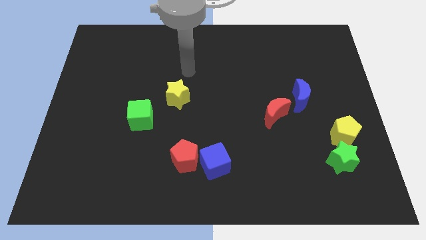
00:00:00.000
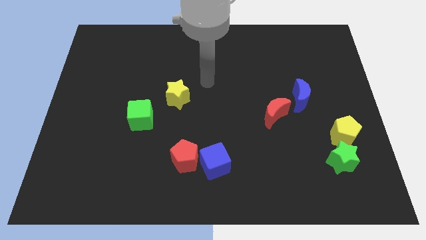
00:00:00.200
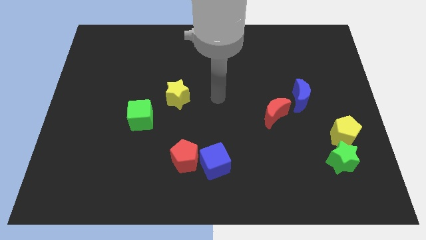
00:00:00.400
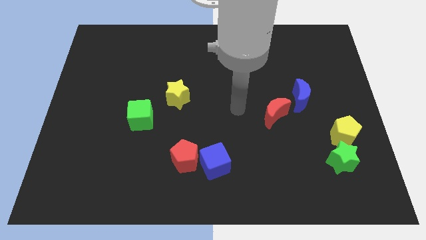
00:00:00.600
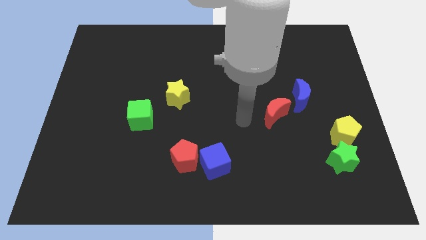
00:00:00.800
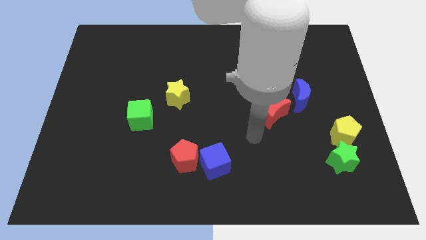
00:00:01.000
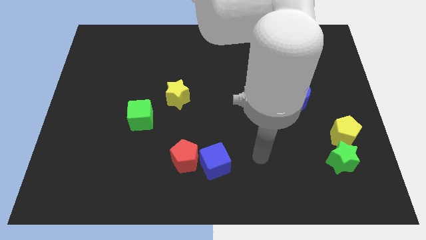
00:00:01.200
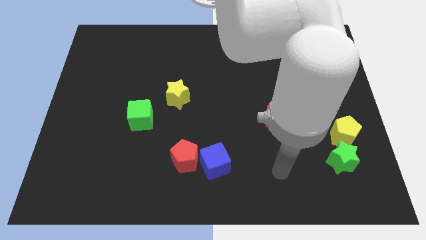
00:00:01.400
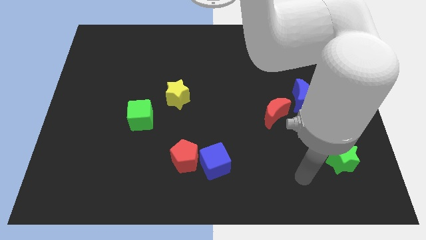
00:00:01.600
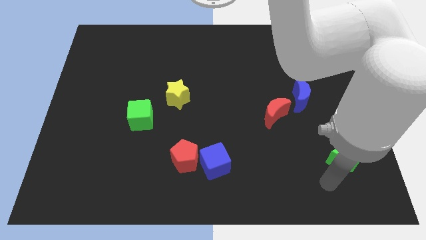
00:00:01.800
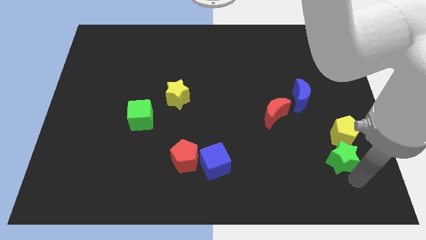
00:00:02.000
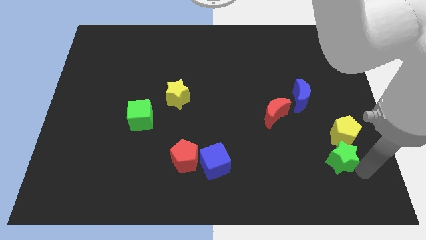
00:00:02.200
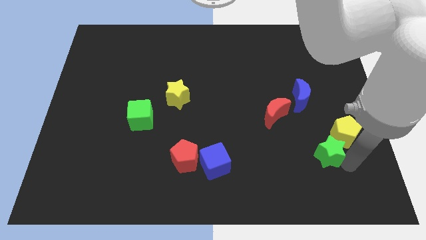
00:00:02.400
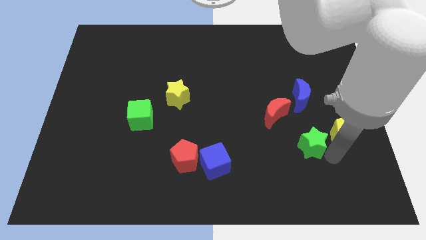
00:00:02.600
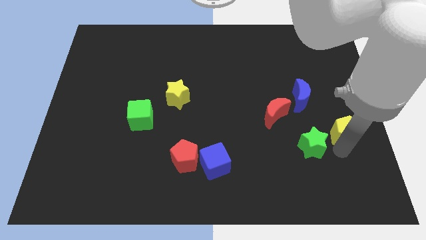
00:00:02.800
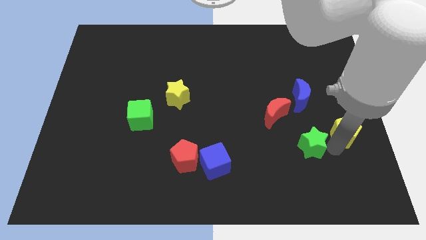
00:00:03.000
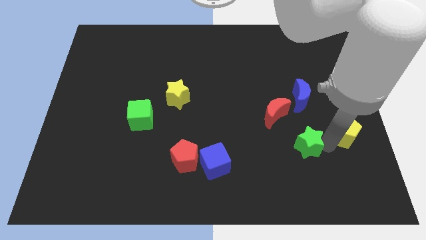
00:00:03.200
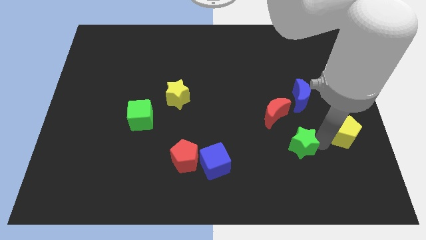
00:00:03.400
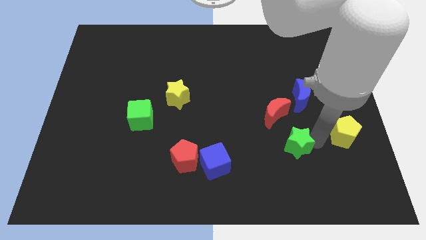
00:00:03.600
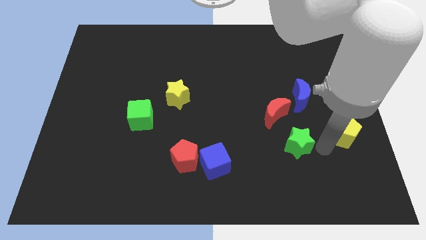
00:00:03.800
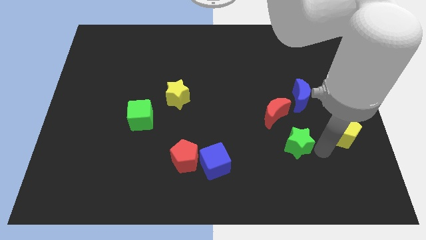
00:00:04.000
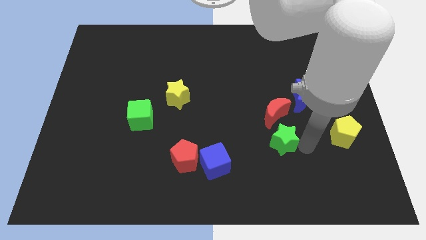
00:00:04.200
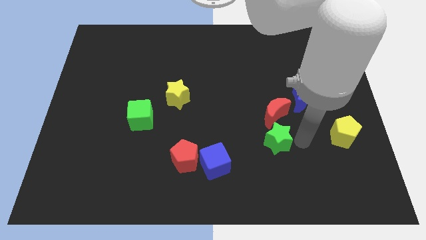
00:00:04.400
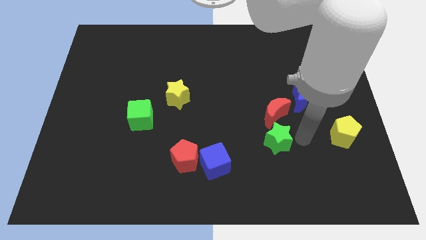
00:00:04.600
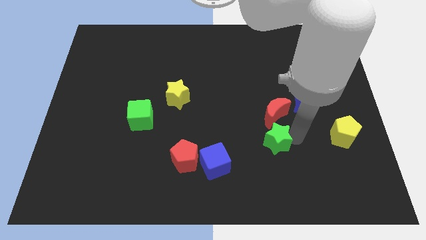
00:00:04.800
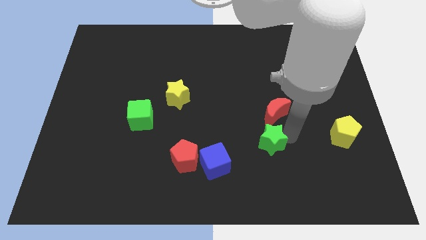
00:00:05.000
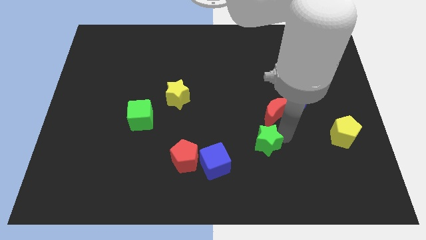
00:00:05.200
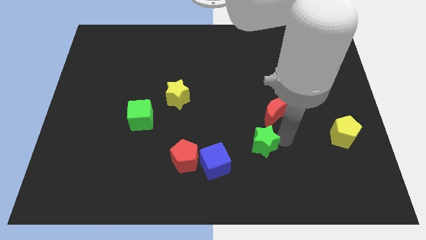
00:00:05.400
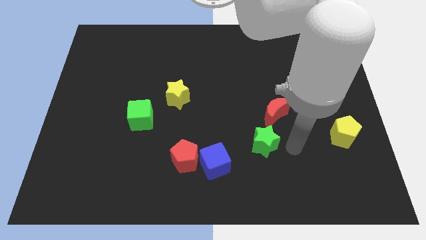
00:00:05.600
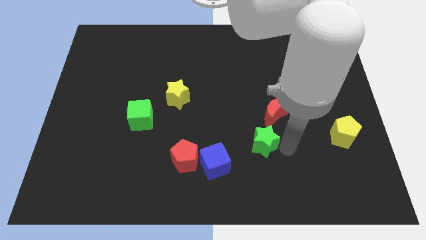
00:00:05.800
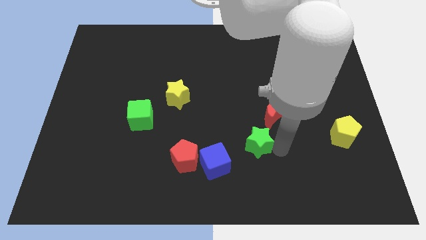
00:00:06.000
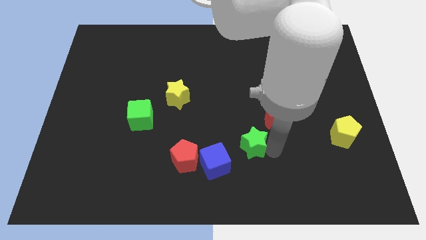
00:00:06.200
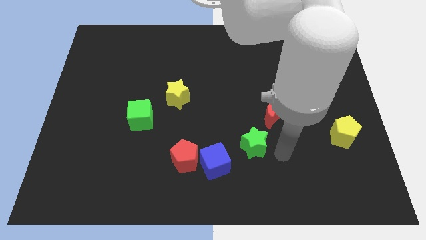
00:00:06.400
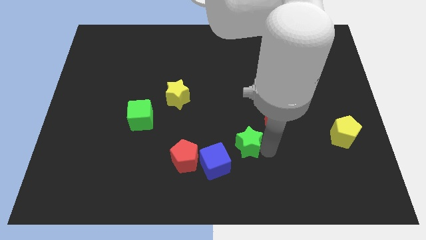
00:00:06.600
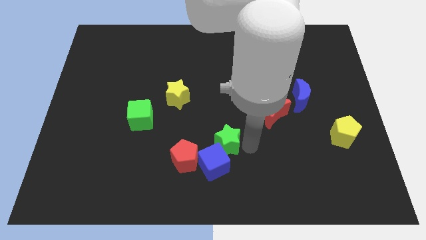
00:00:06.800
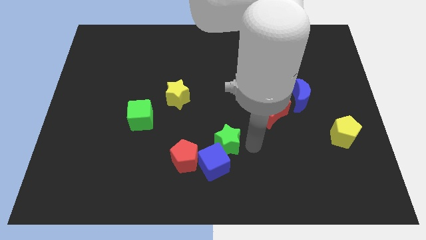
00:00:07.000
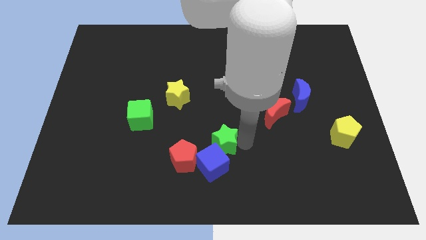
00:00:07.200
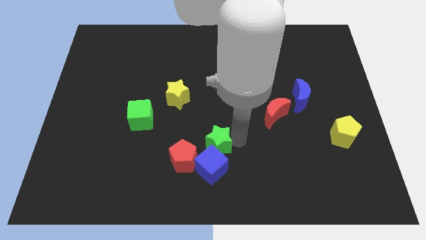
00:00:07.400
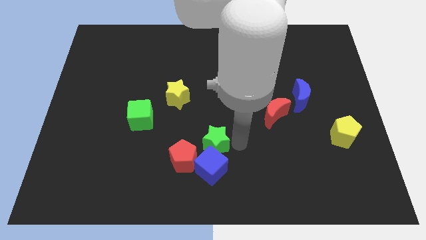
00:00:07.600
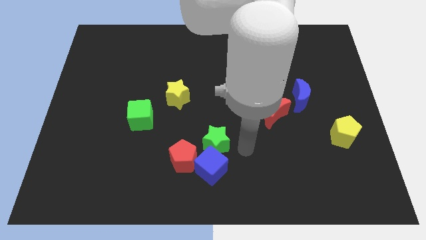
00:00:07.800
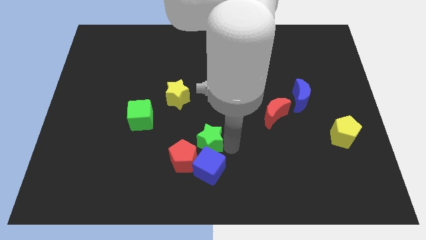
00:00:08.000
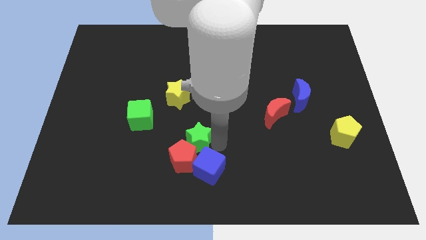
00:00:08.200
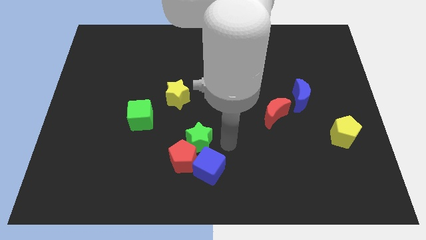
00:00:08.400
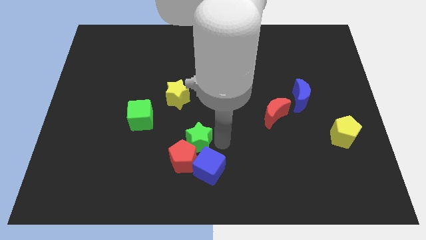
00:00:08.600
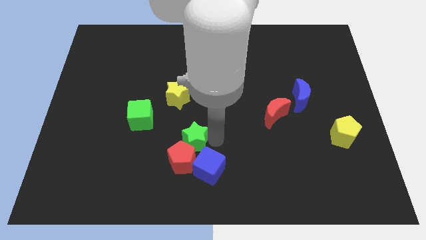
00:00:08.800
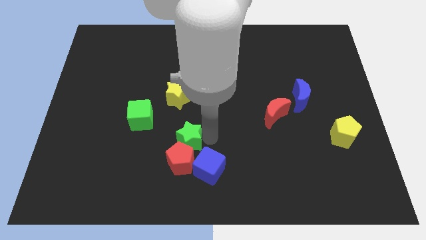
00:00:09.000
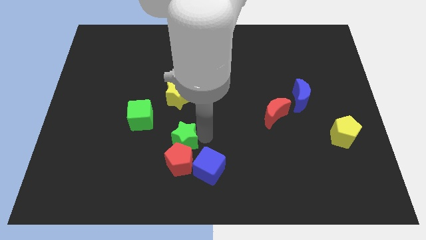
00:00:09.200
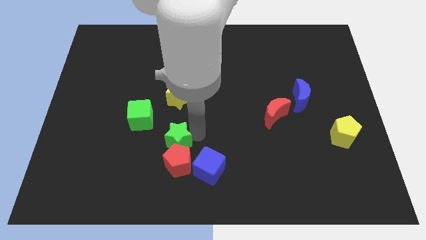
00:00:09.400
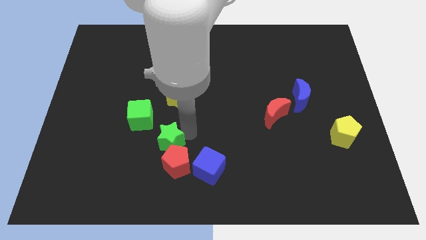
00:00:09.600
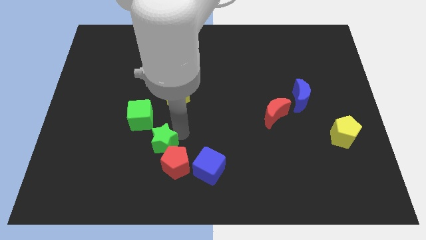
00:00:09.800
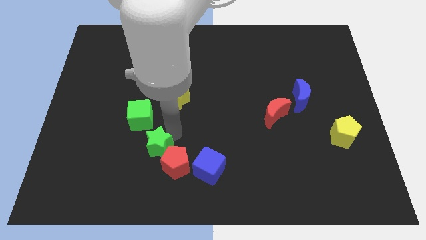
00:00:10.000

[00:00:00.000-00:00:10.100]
slide the green star below the green cube

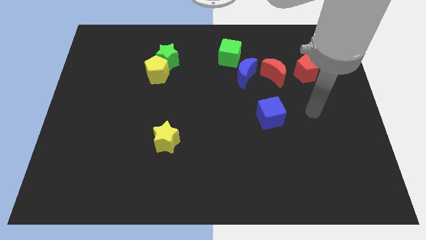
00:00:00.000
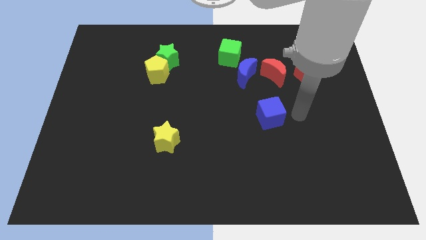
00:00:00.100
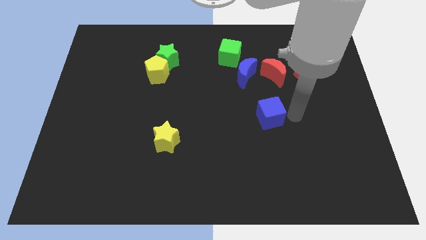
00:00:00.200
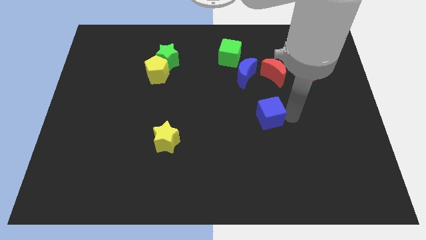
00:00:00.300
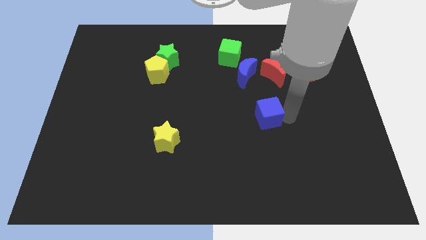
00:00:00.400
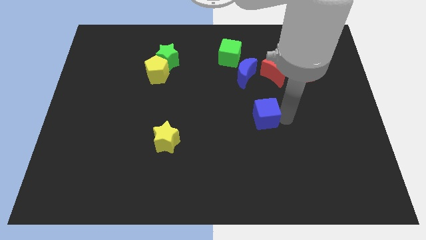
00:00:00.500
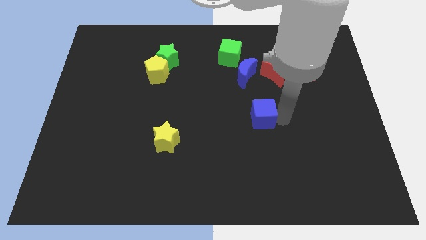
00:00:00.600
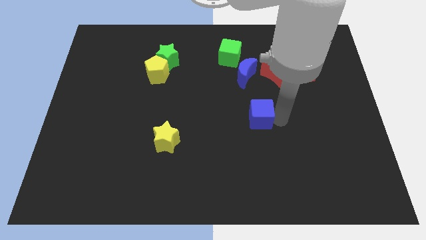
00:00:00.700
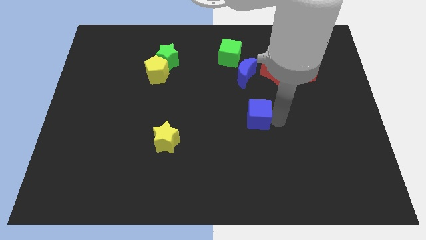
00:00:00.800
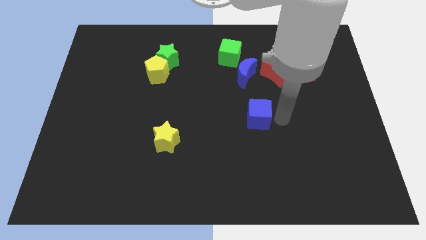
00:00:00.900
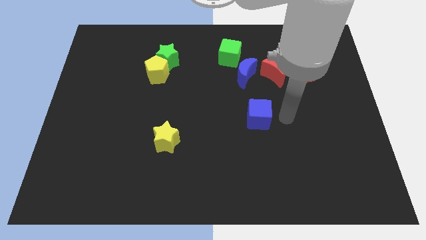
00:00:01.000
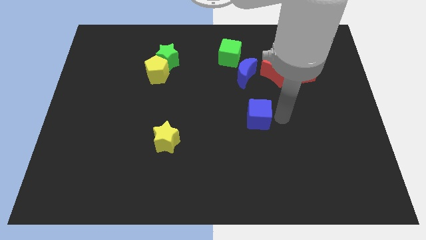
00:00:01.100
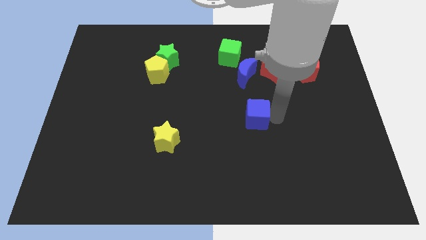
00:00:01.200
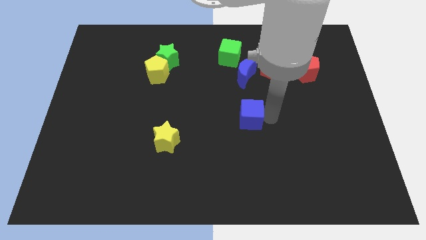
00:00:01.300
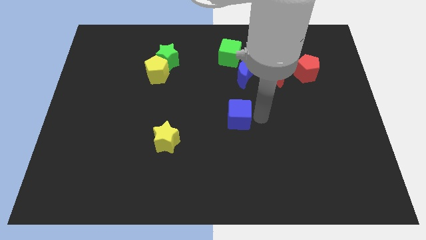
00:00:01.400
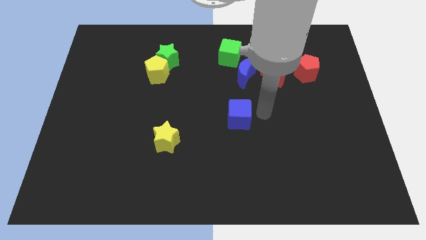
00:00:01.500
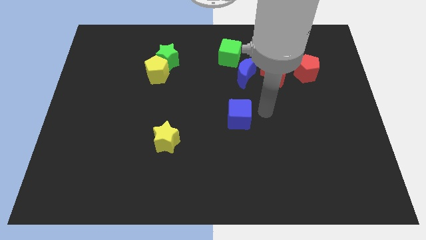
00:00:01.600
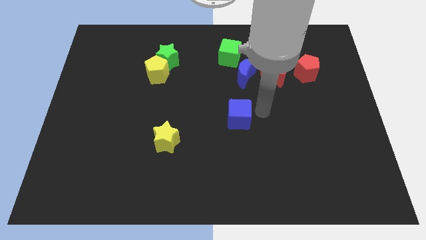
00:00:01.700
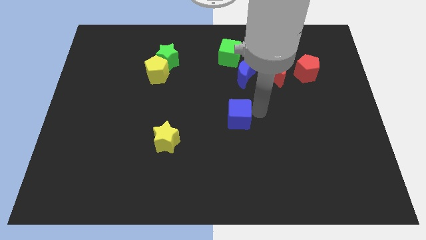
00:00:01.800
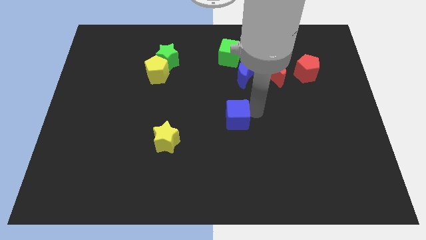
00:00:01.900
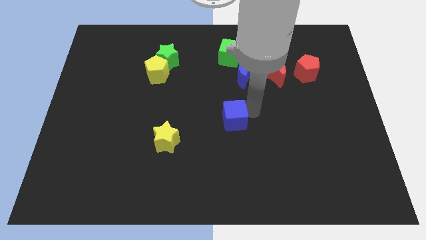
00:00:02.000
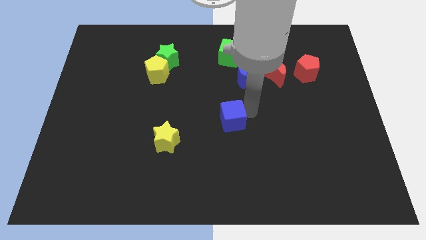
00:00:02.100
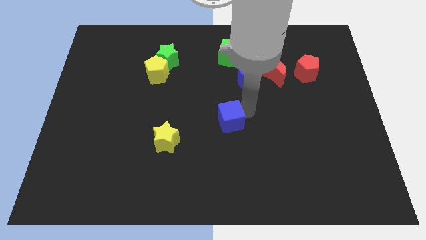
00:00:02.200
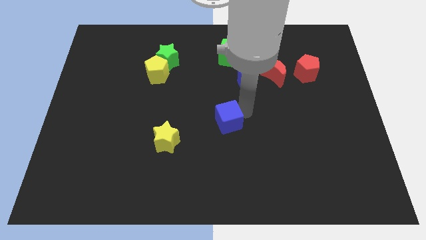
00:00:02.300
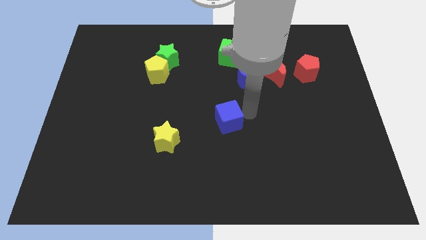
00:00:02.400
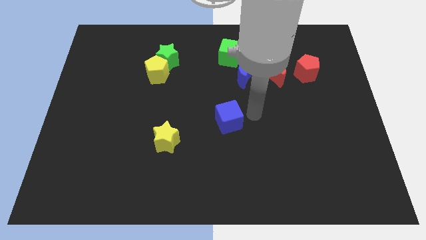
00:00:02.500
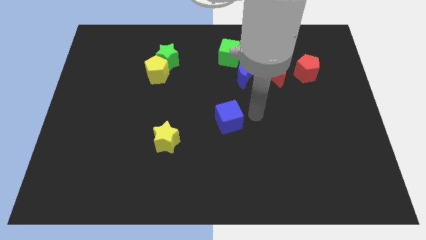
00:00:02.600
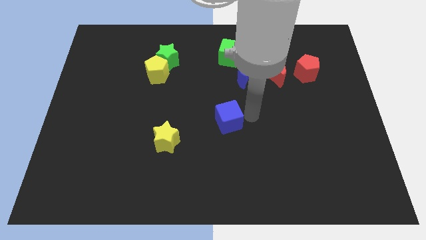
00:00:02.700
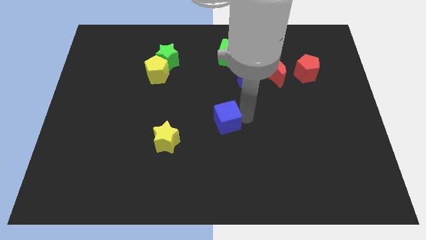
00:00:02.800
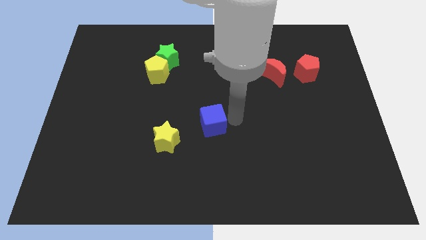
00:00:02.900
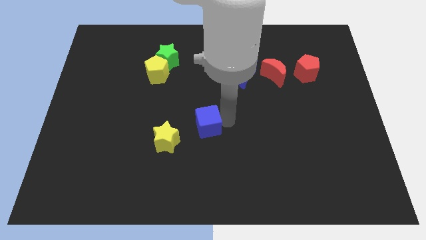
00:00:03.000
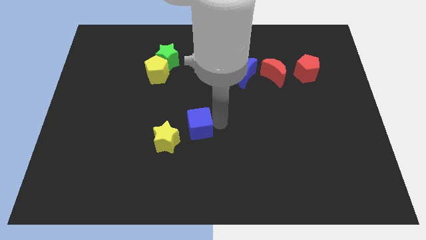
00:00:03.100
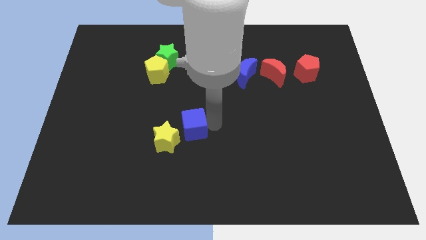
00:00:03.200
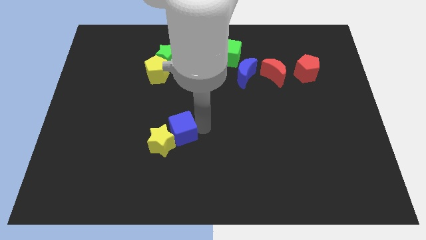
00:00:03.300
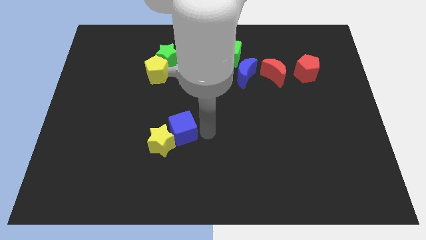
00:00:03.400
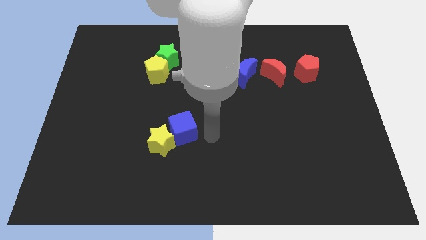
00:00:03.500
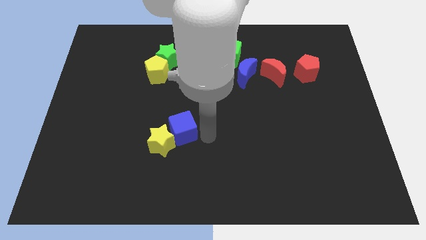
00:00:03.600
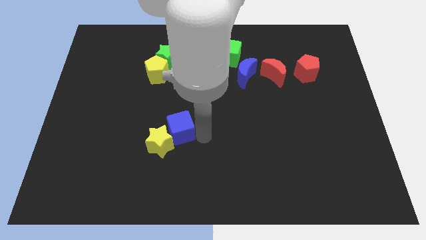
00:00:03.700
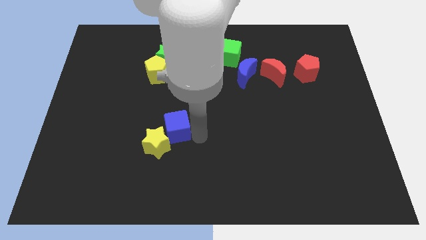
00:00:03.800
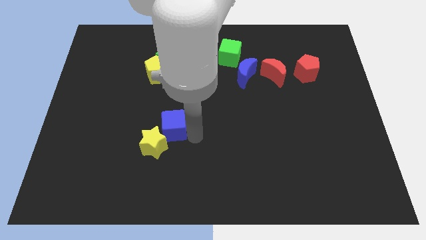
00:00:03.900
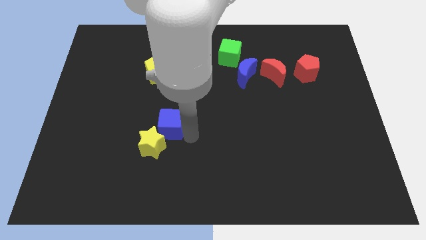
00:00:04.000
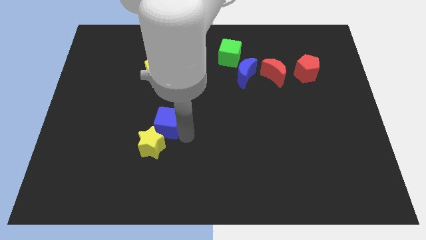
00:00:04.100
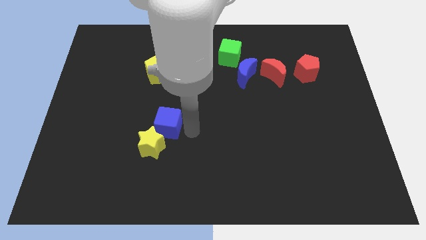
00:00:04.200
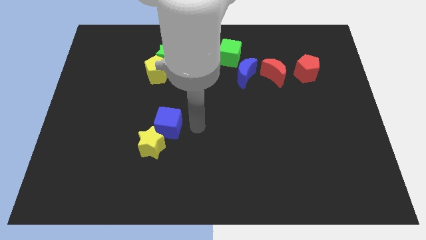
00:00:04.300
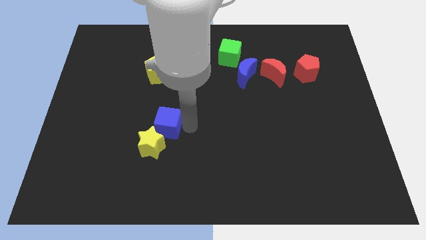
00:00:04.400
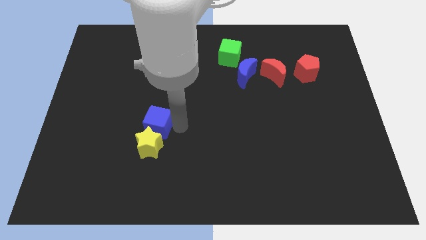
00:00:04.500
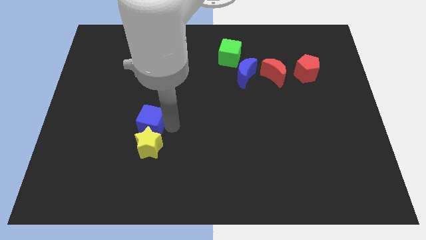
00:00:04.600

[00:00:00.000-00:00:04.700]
put the blue cube diagonally up and to the left of the yellow star
